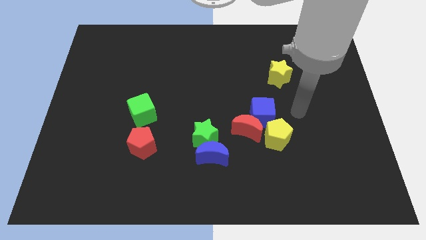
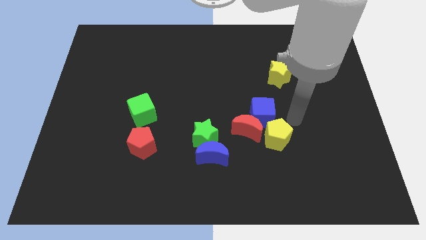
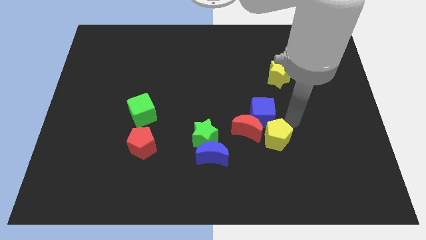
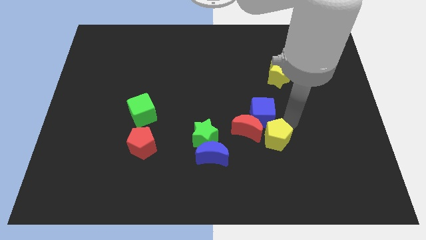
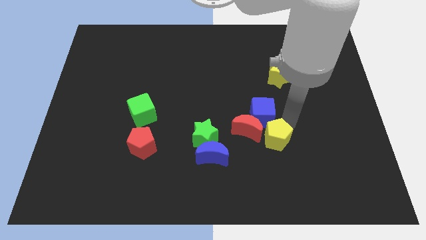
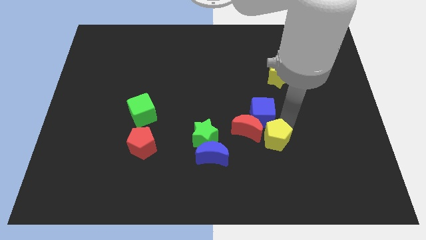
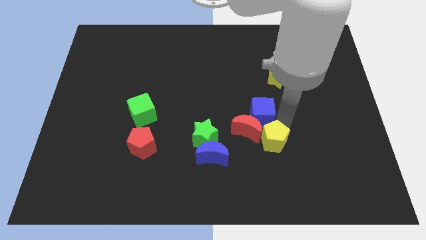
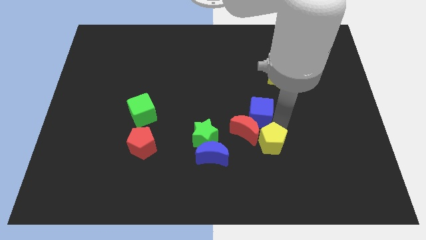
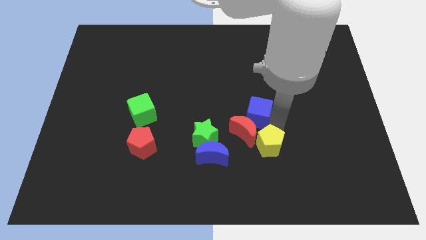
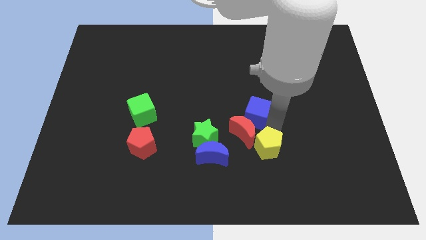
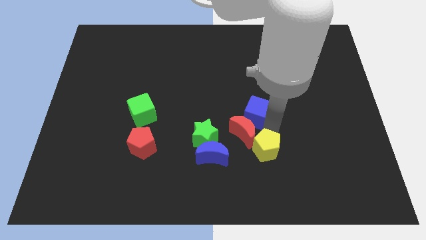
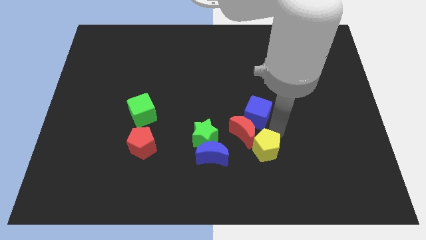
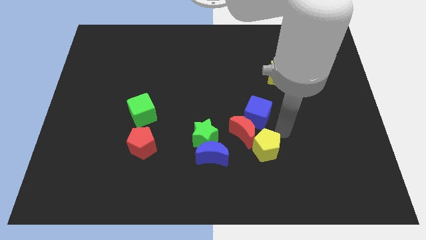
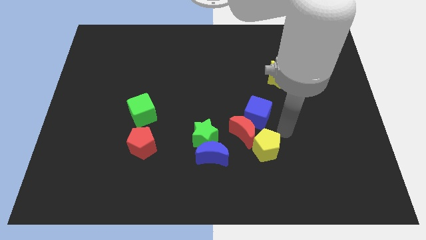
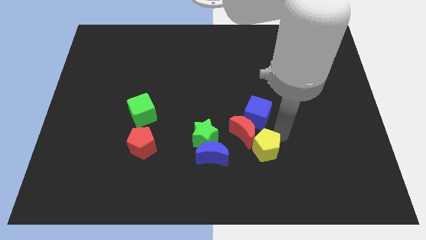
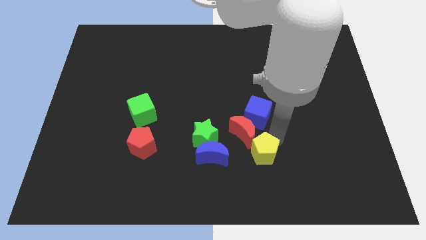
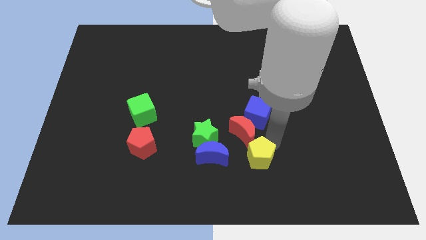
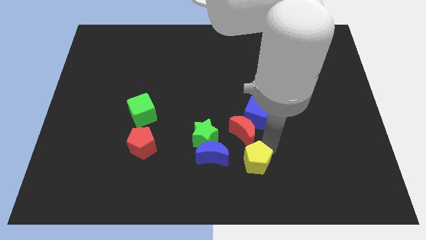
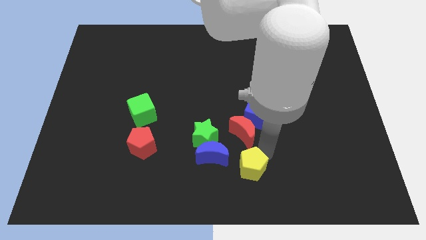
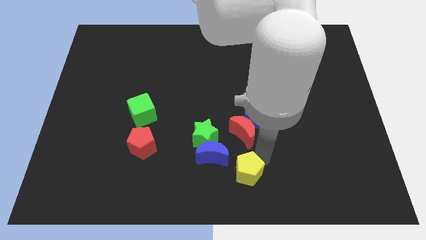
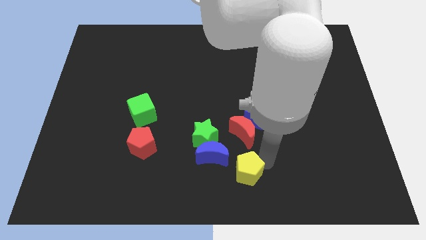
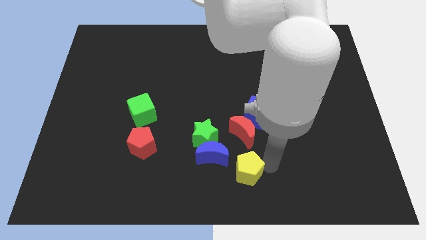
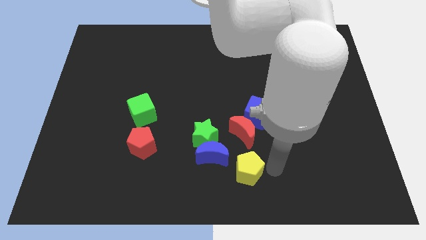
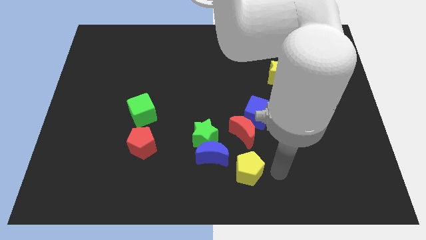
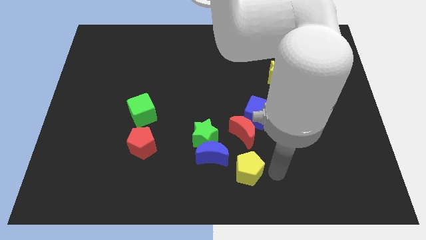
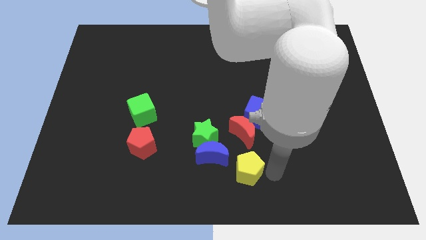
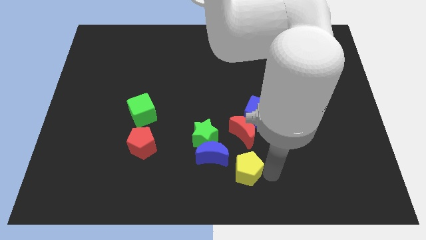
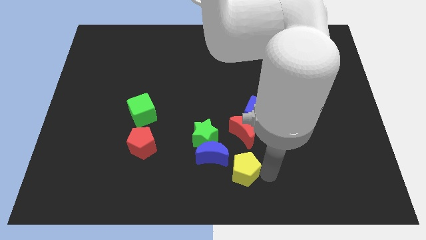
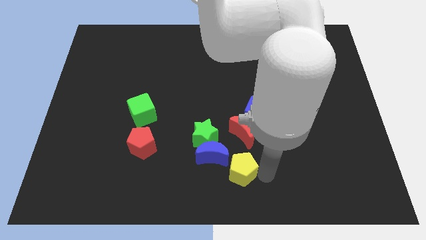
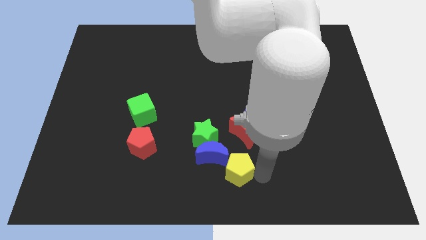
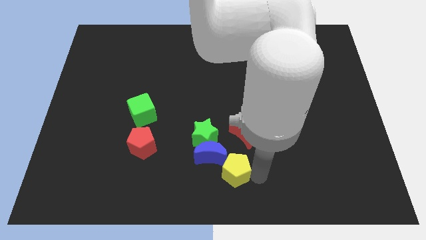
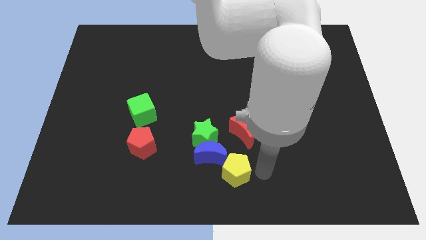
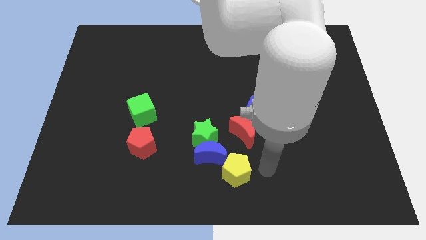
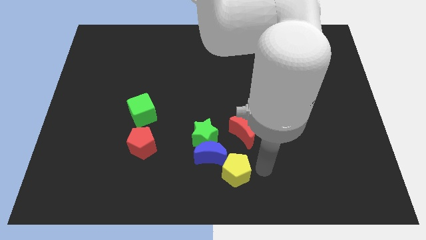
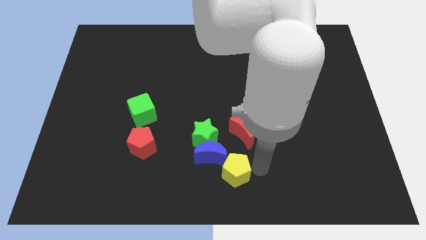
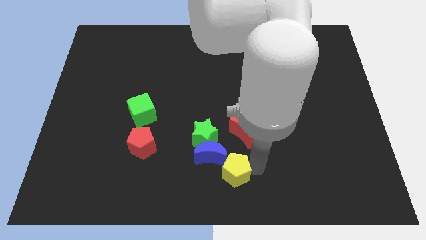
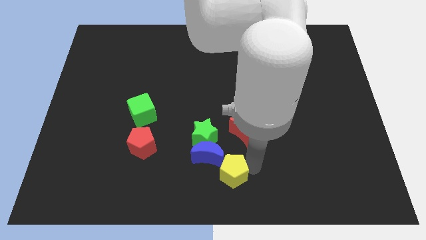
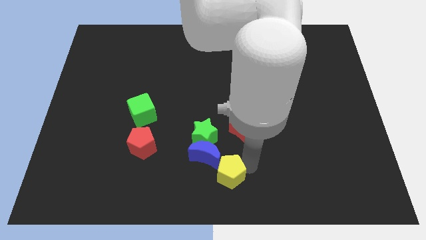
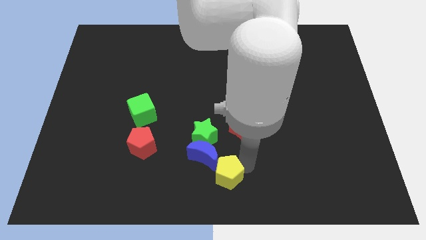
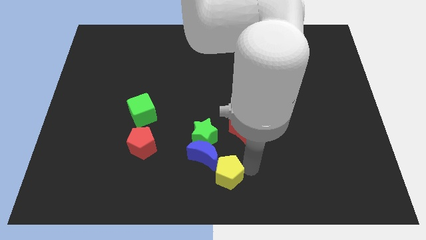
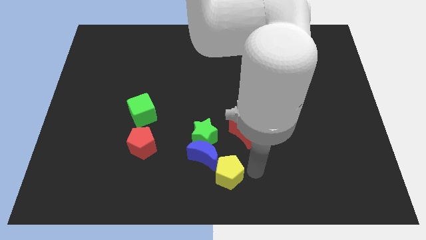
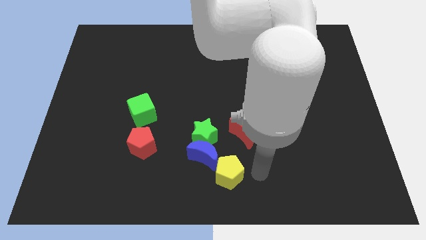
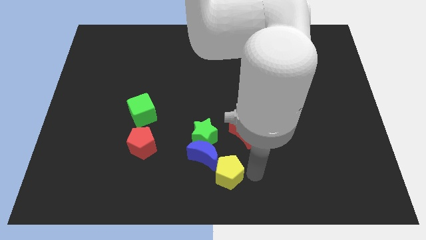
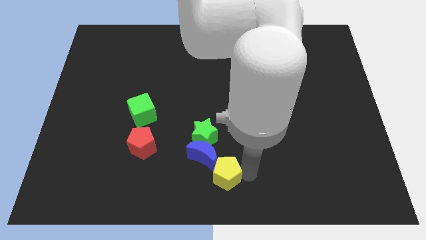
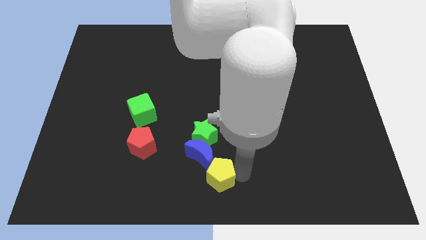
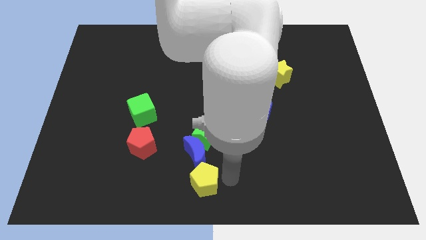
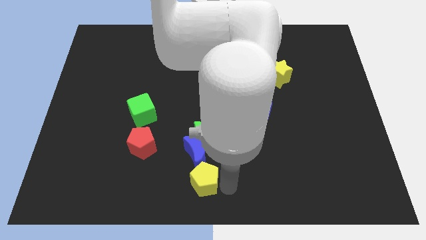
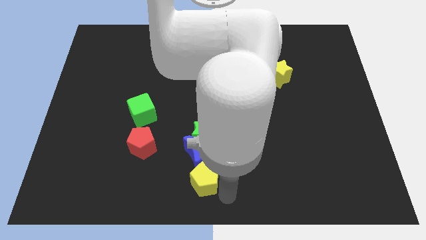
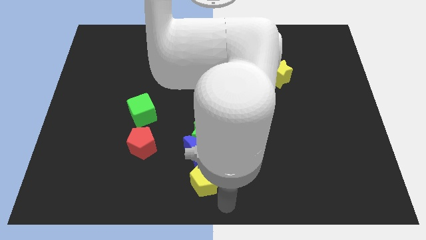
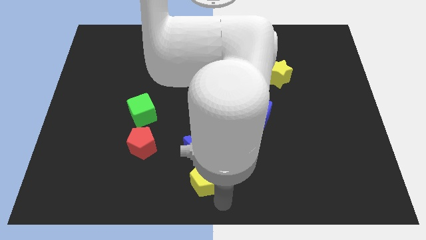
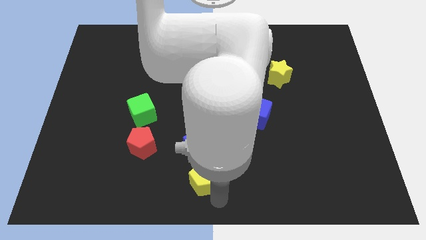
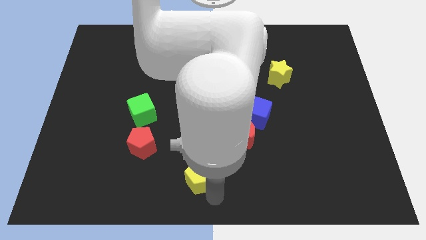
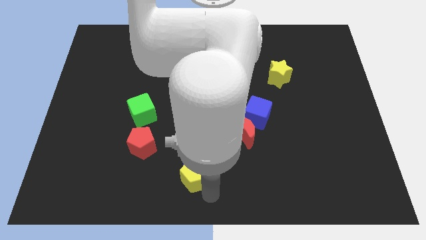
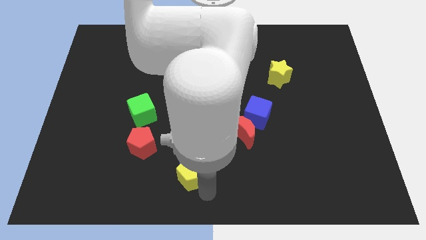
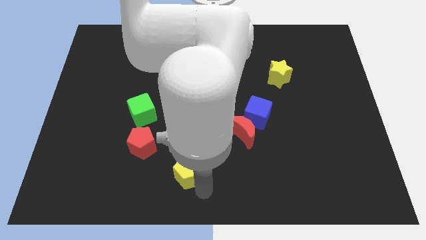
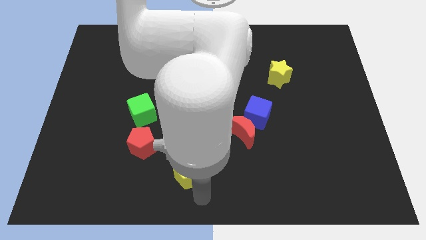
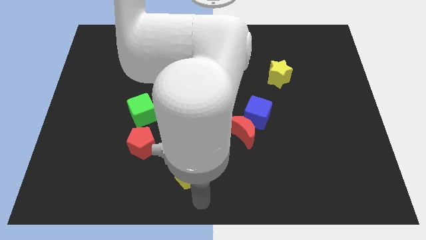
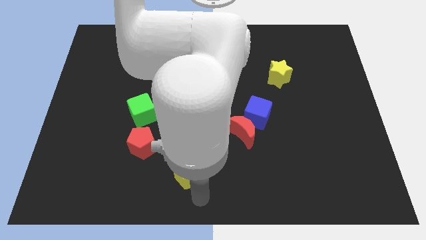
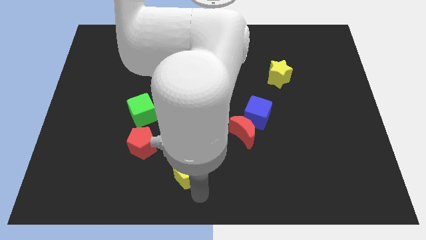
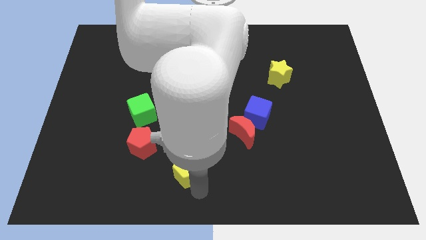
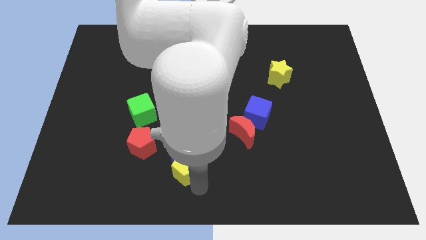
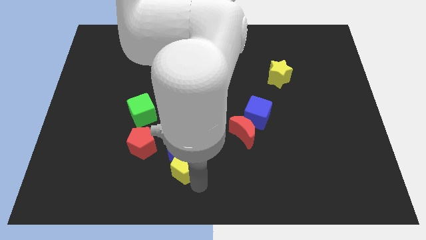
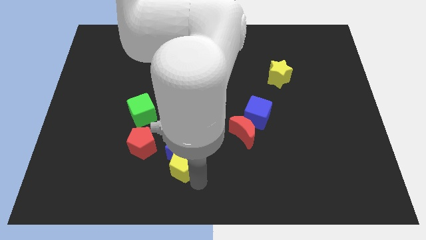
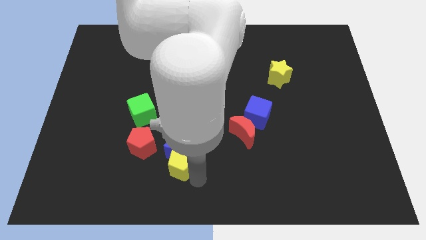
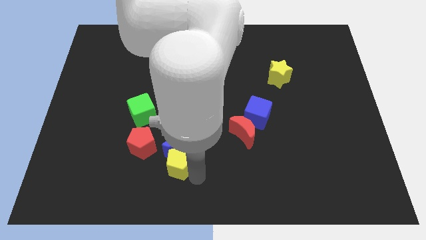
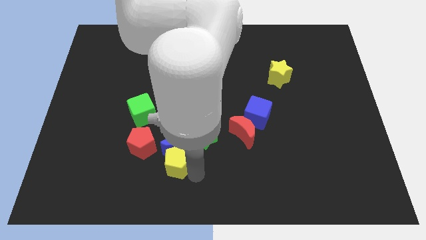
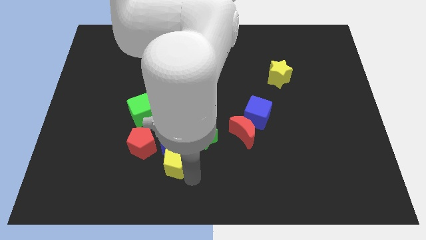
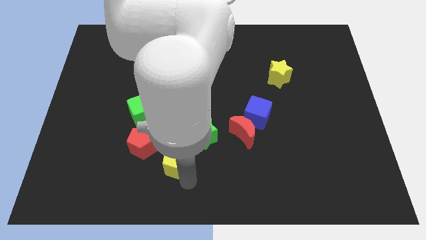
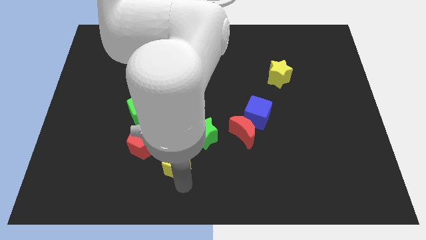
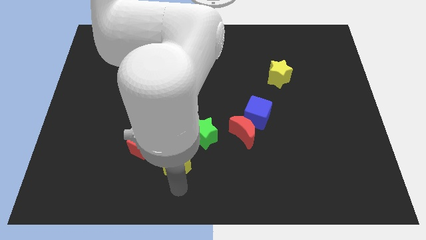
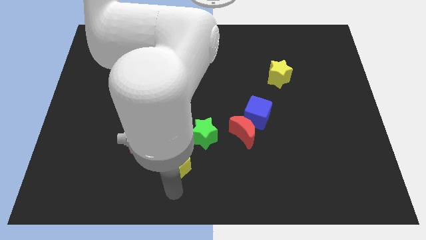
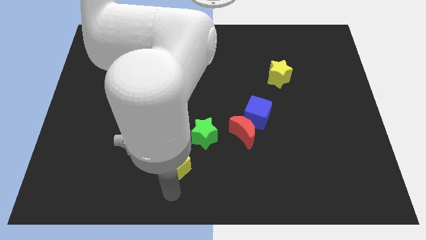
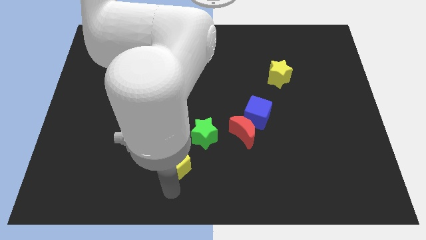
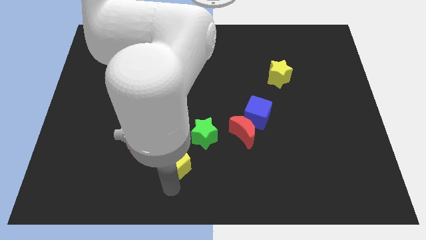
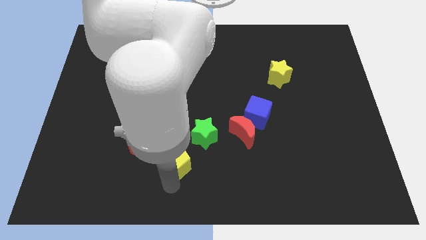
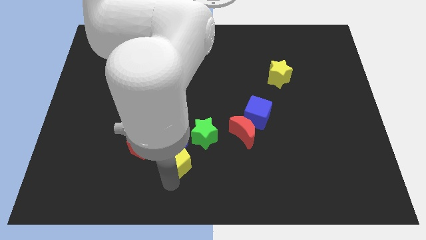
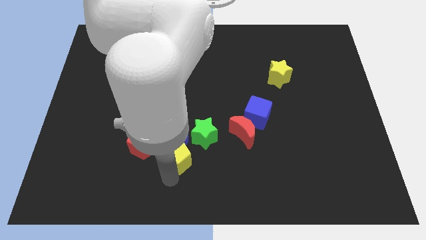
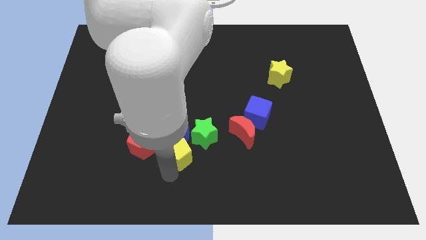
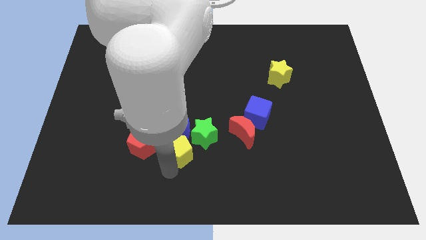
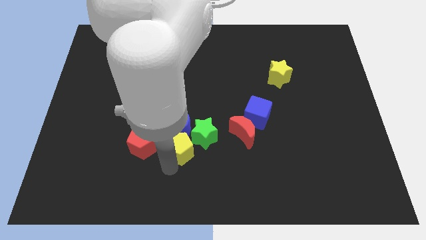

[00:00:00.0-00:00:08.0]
push the yellow pentagon to the left side of the red moon
